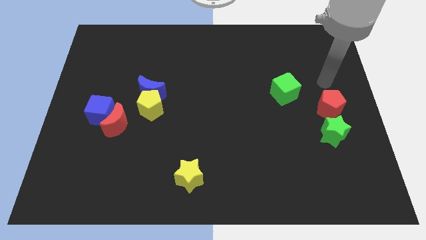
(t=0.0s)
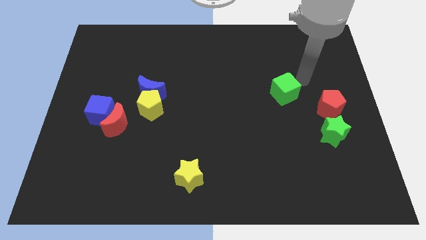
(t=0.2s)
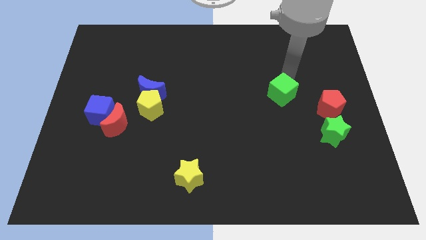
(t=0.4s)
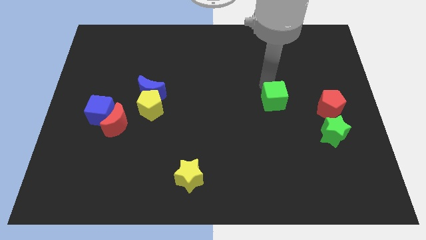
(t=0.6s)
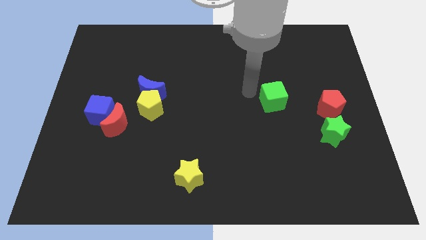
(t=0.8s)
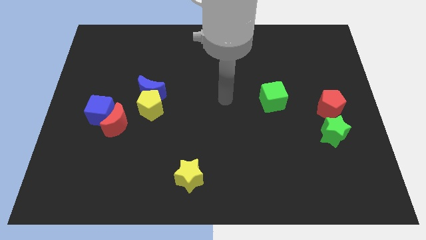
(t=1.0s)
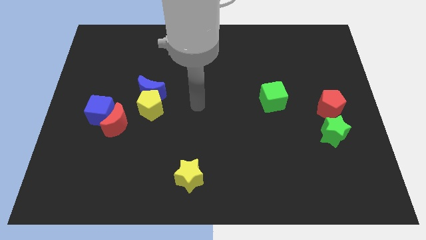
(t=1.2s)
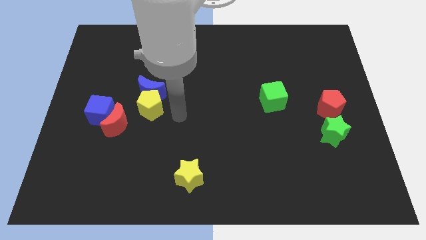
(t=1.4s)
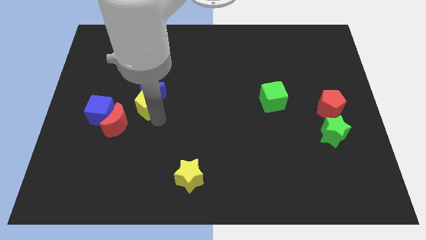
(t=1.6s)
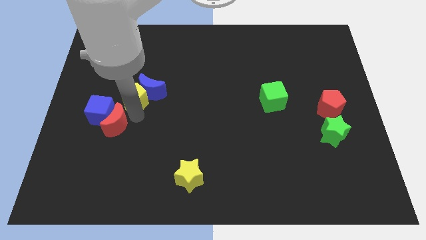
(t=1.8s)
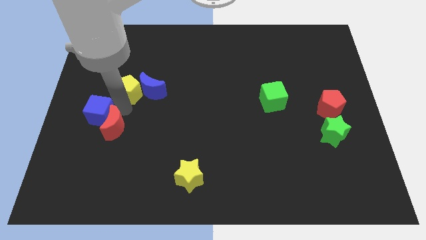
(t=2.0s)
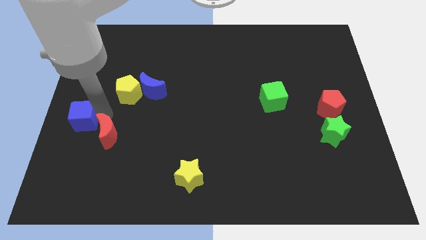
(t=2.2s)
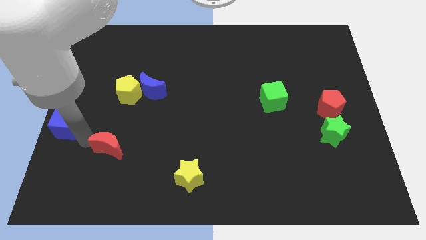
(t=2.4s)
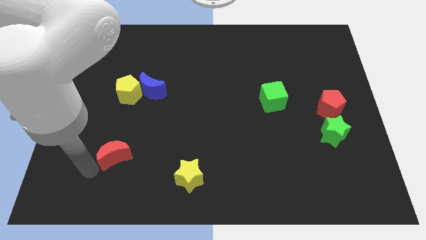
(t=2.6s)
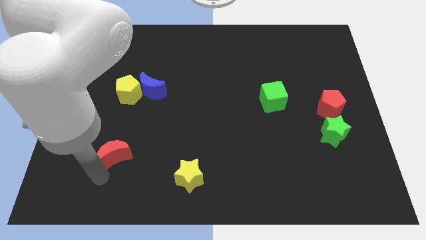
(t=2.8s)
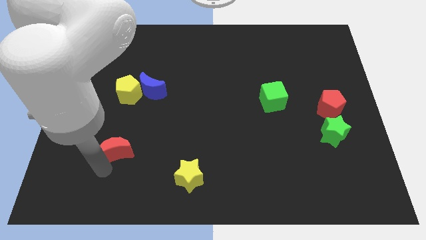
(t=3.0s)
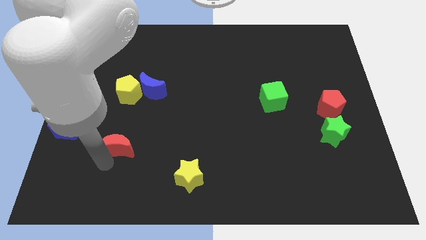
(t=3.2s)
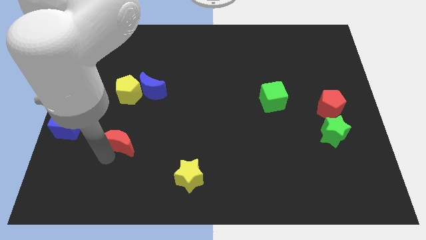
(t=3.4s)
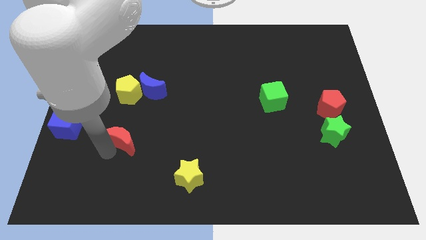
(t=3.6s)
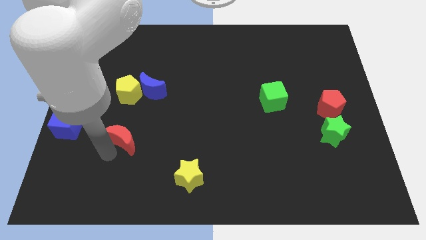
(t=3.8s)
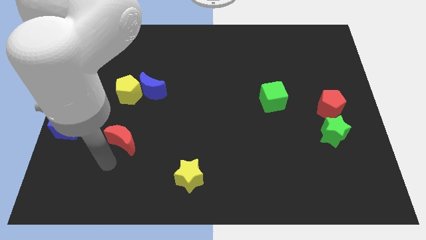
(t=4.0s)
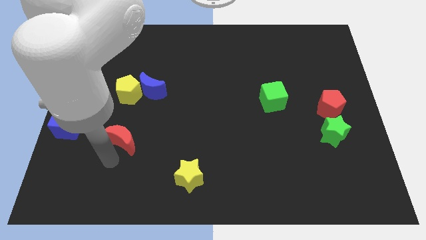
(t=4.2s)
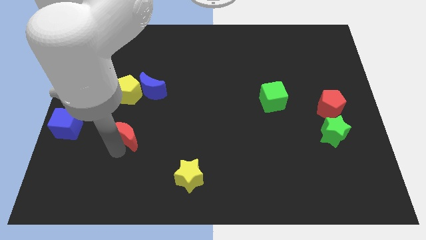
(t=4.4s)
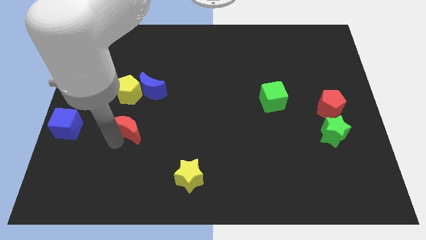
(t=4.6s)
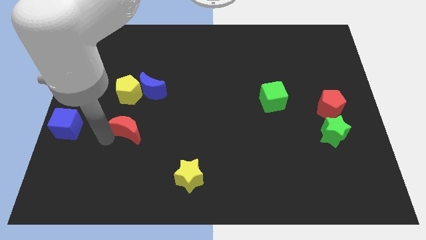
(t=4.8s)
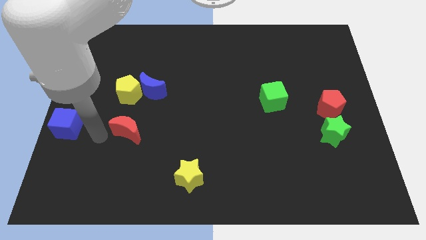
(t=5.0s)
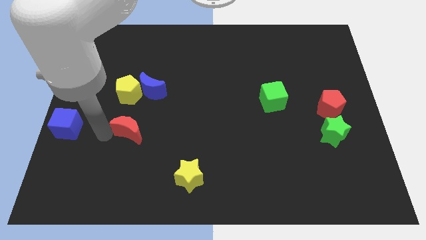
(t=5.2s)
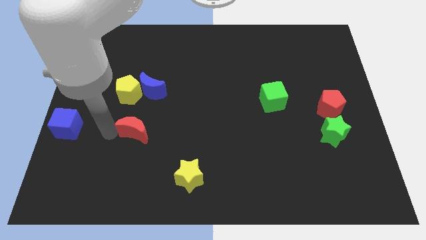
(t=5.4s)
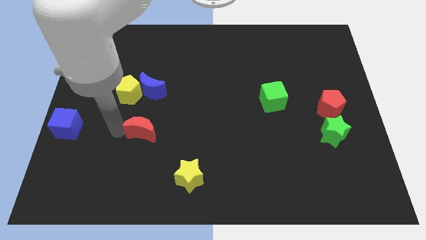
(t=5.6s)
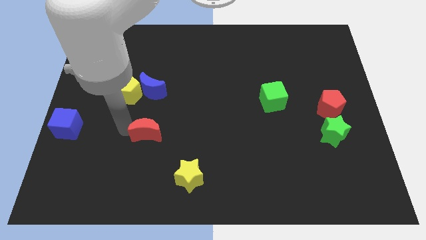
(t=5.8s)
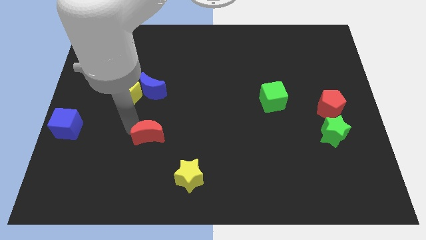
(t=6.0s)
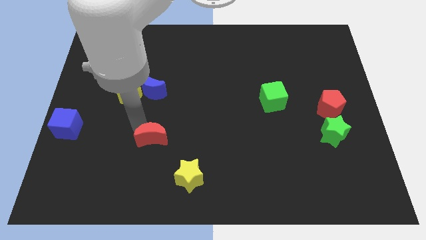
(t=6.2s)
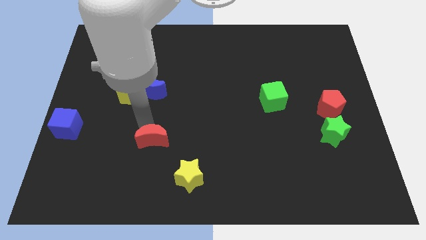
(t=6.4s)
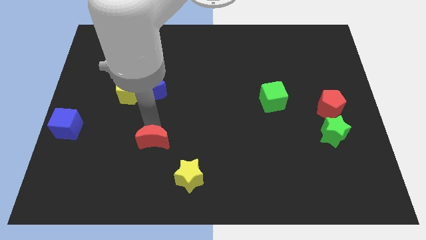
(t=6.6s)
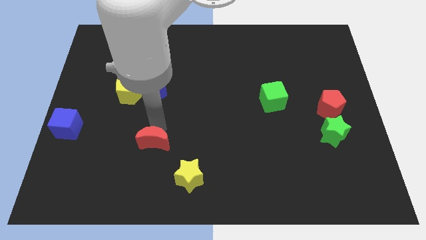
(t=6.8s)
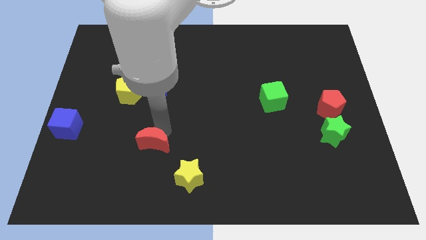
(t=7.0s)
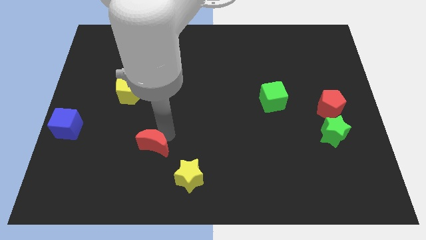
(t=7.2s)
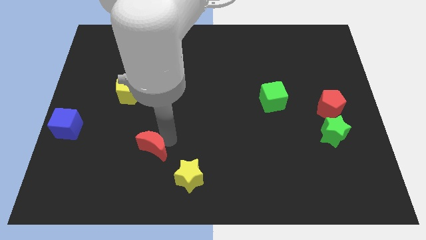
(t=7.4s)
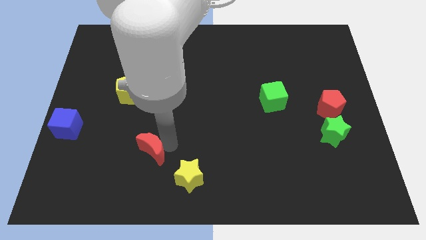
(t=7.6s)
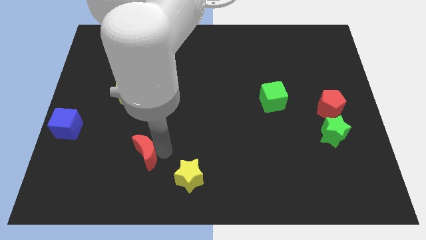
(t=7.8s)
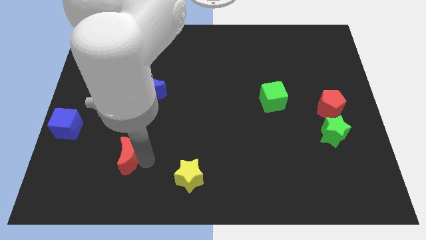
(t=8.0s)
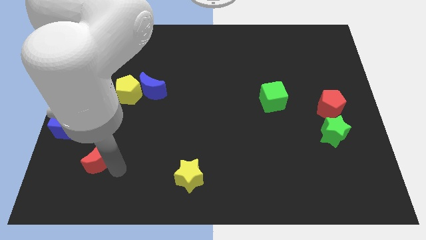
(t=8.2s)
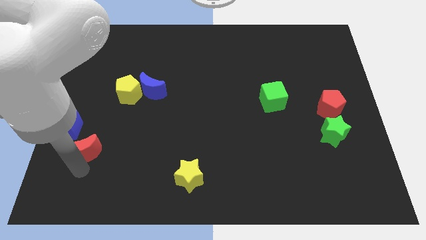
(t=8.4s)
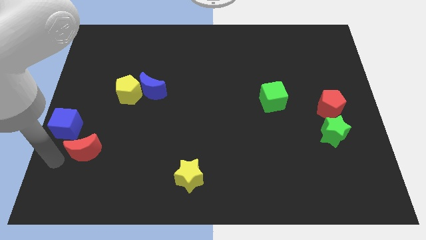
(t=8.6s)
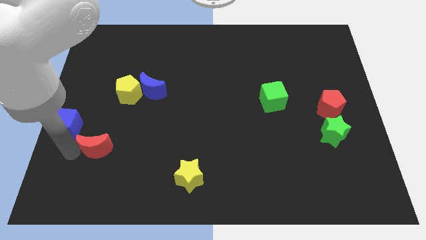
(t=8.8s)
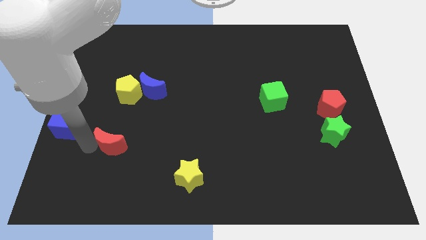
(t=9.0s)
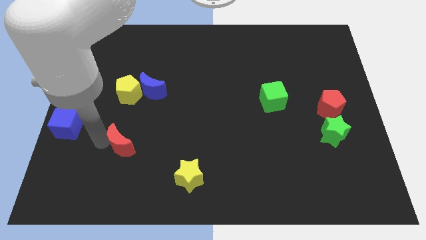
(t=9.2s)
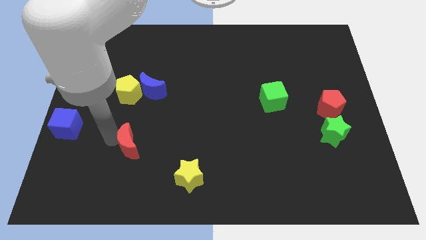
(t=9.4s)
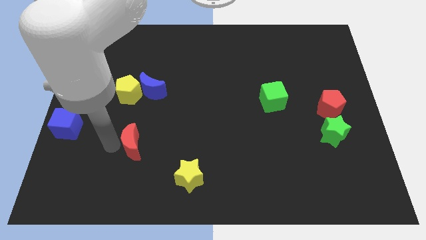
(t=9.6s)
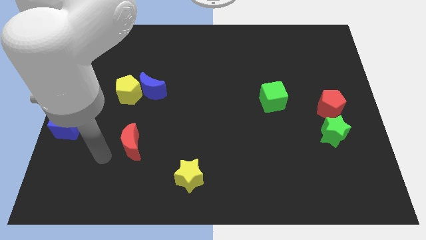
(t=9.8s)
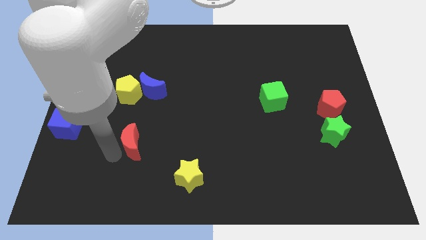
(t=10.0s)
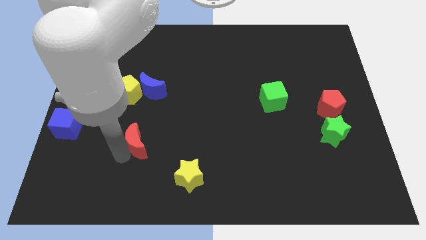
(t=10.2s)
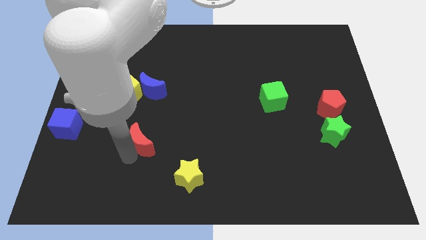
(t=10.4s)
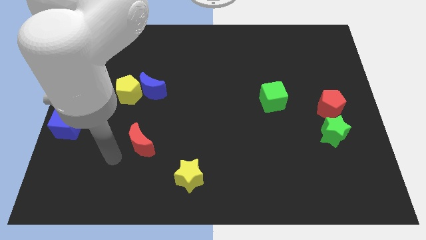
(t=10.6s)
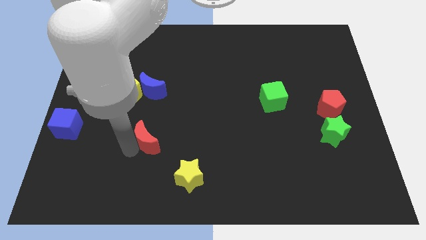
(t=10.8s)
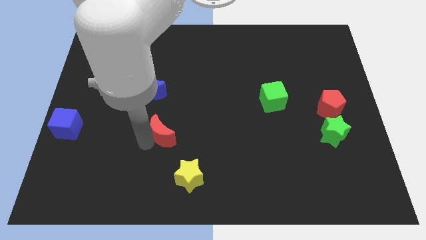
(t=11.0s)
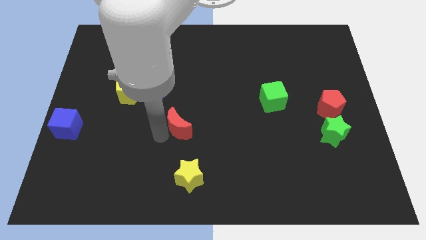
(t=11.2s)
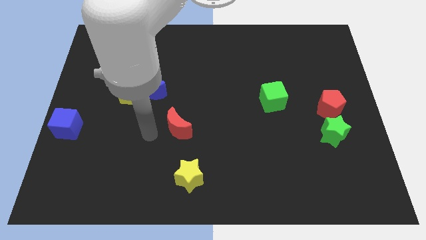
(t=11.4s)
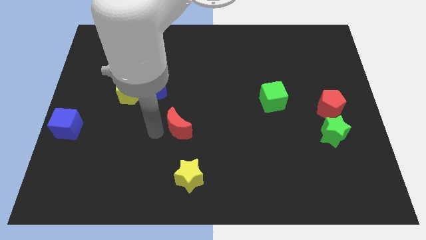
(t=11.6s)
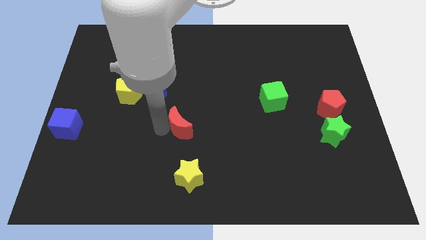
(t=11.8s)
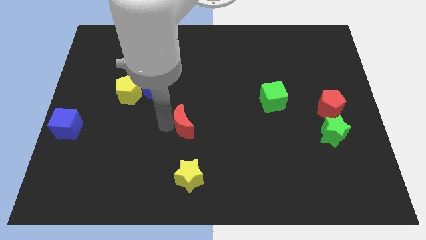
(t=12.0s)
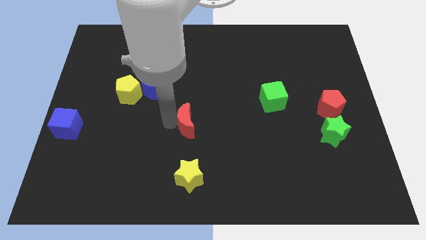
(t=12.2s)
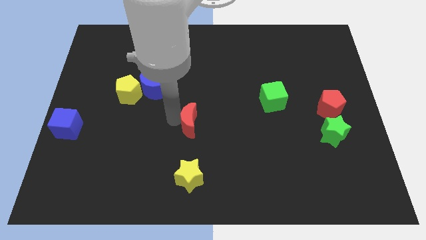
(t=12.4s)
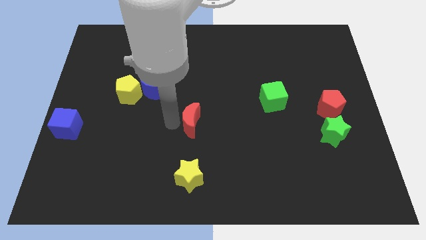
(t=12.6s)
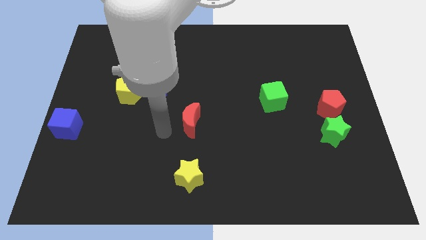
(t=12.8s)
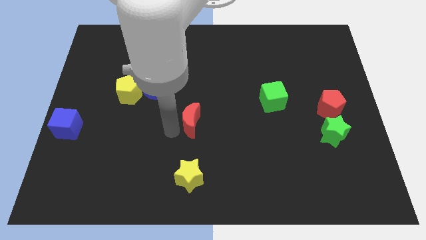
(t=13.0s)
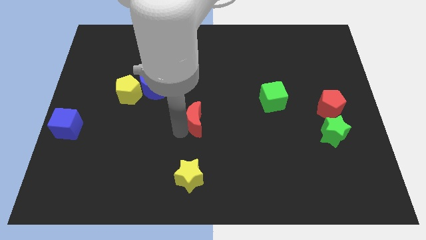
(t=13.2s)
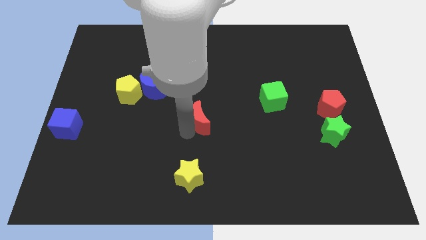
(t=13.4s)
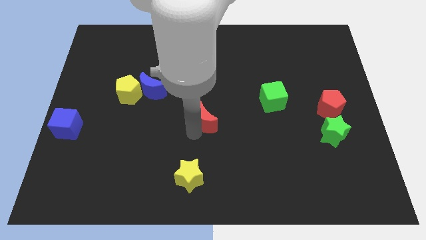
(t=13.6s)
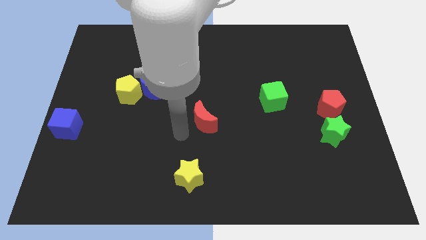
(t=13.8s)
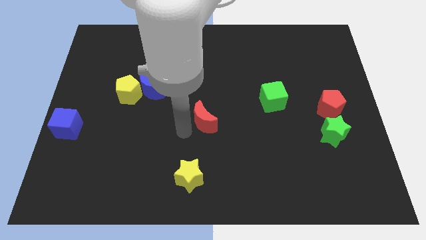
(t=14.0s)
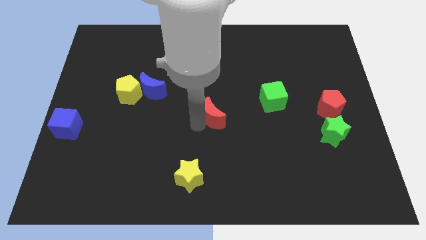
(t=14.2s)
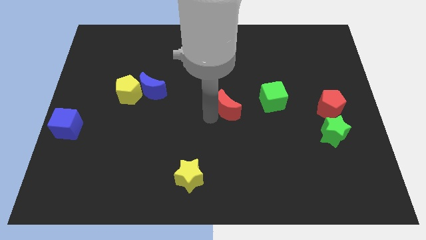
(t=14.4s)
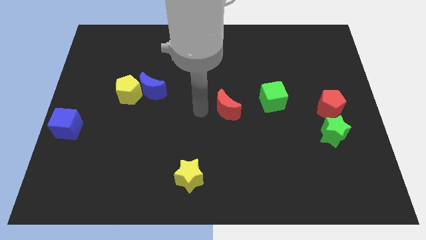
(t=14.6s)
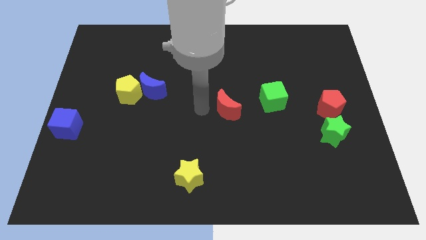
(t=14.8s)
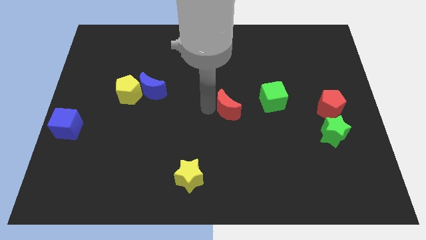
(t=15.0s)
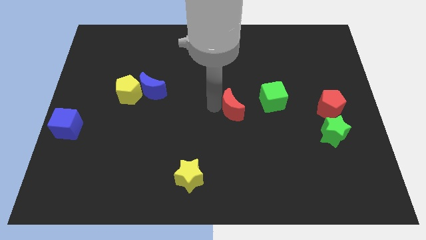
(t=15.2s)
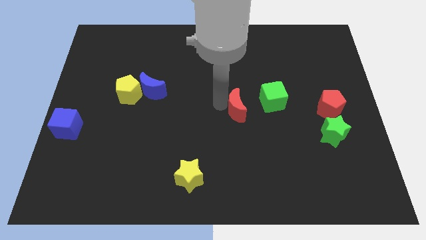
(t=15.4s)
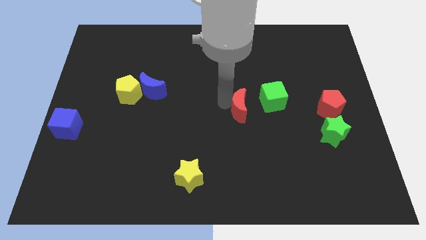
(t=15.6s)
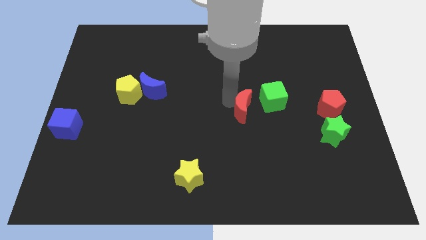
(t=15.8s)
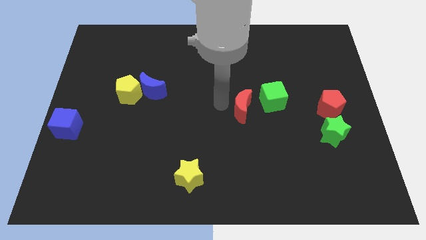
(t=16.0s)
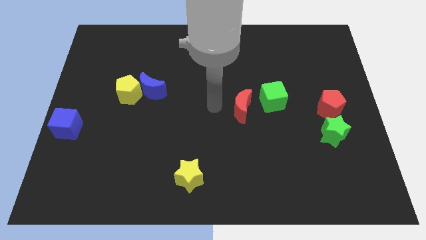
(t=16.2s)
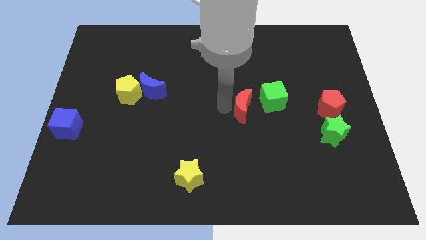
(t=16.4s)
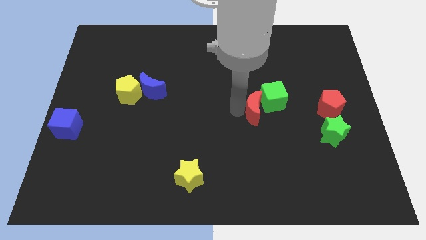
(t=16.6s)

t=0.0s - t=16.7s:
push the red moon close to the green cube
